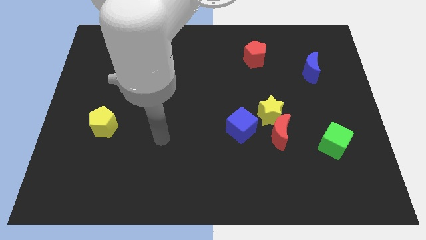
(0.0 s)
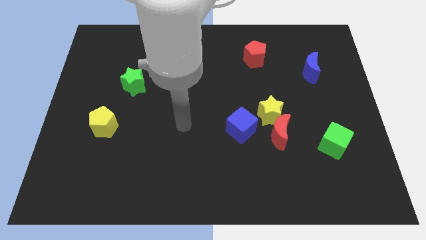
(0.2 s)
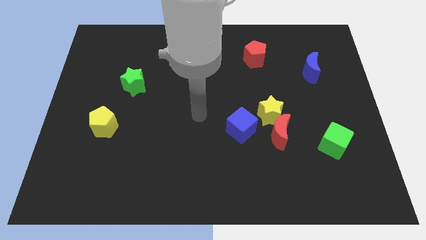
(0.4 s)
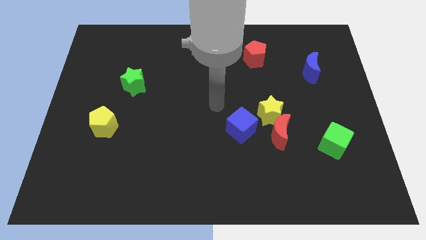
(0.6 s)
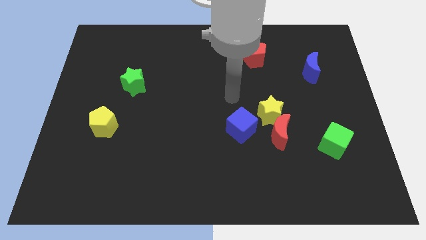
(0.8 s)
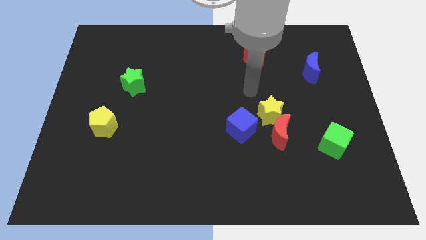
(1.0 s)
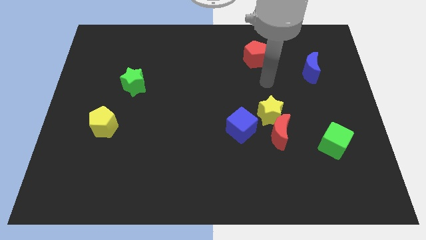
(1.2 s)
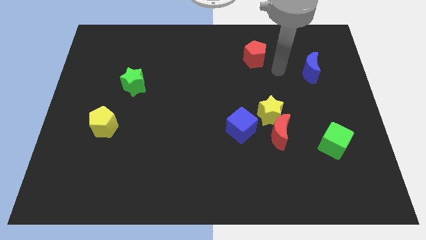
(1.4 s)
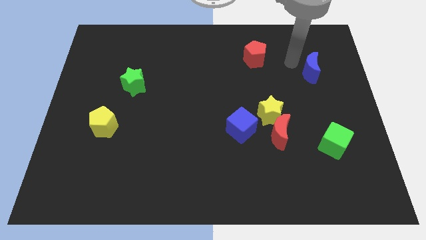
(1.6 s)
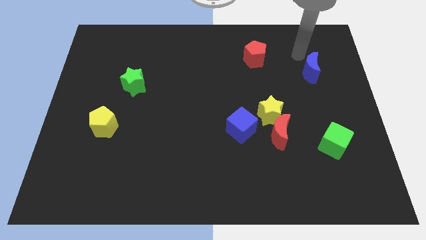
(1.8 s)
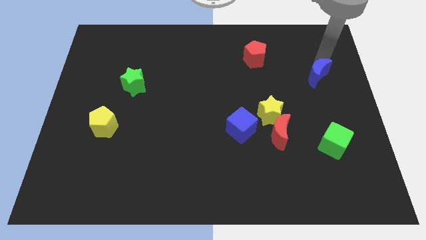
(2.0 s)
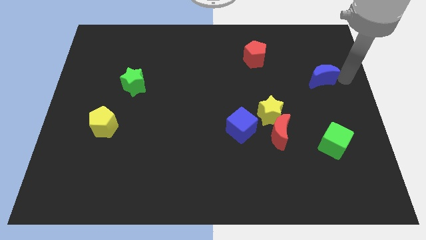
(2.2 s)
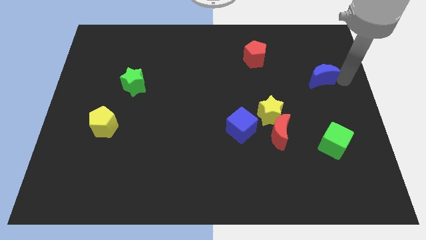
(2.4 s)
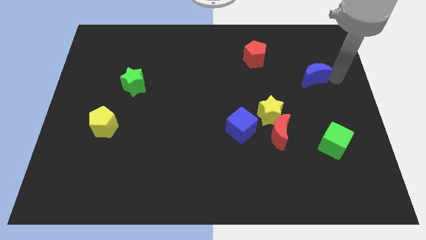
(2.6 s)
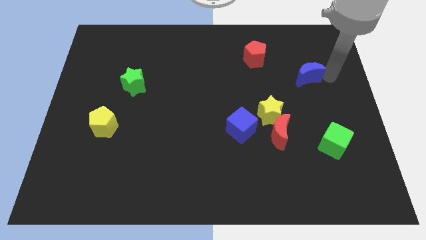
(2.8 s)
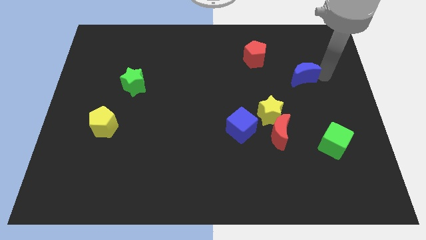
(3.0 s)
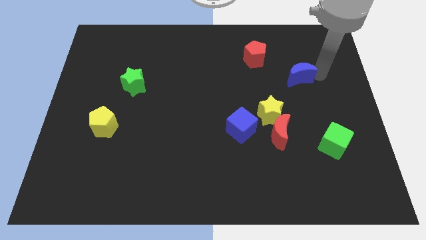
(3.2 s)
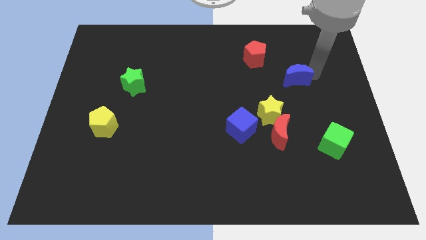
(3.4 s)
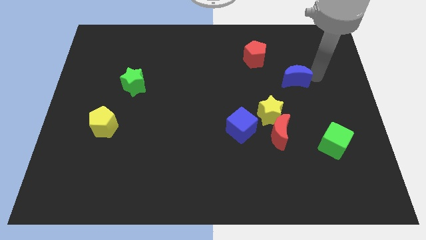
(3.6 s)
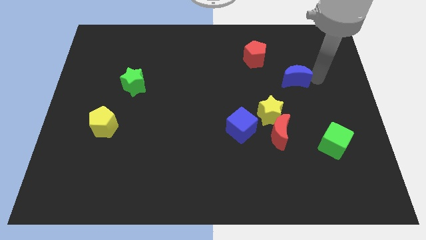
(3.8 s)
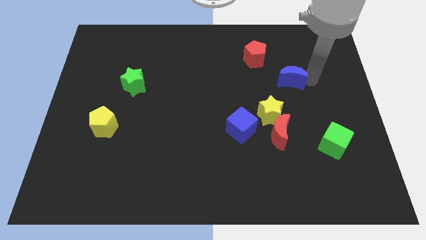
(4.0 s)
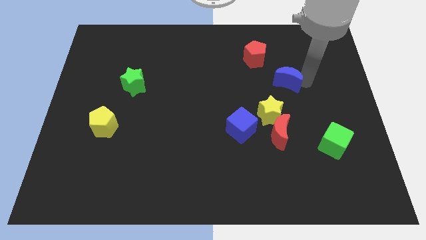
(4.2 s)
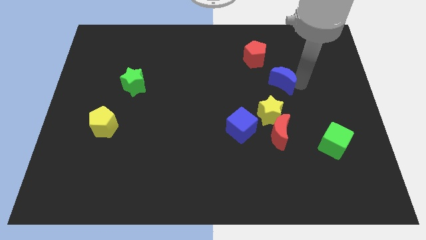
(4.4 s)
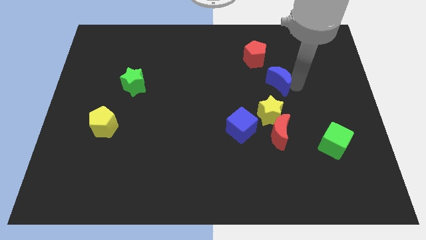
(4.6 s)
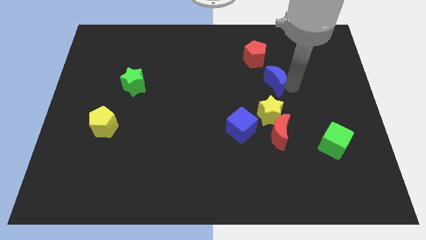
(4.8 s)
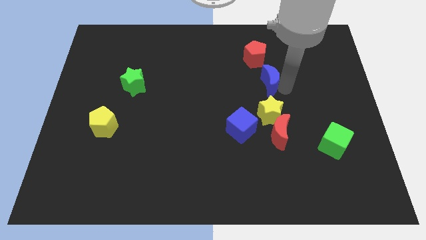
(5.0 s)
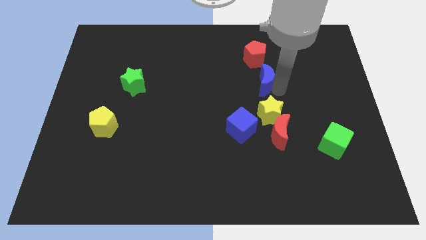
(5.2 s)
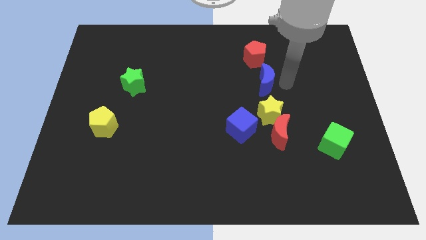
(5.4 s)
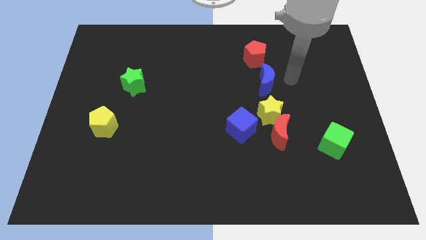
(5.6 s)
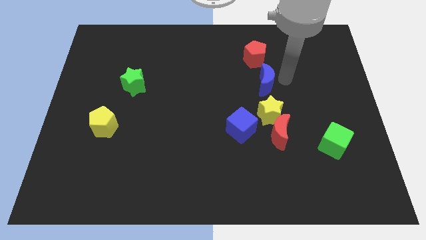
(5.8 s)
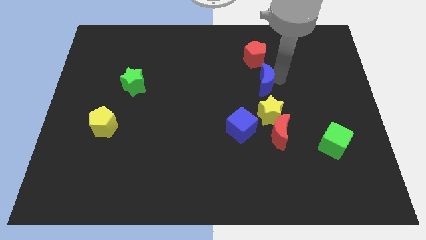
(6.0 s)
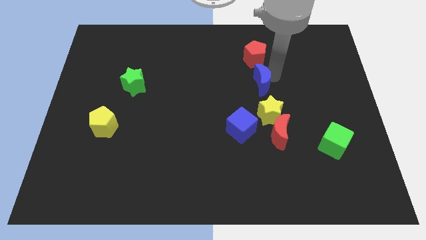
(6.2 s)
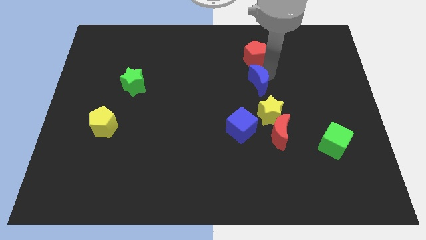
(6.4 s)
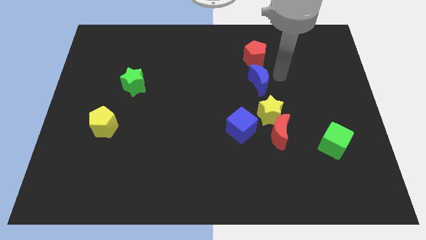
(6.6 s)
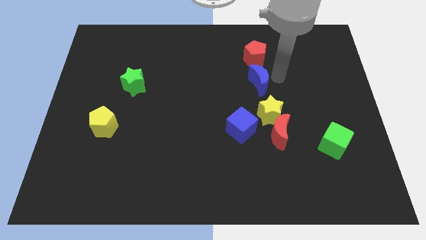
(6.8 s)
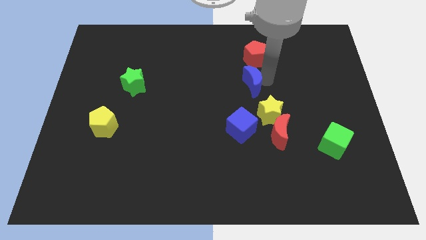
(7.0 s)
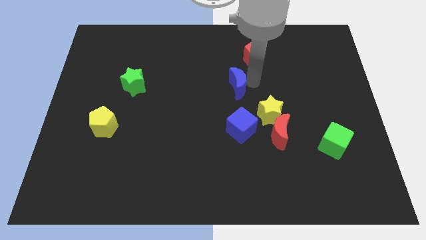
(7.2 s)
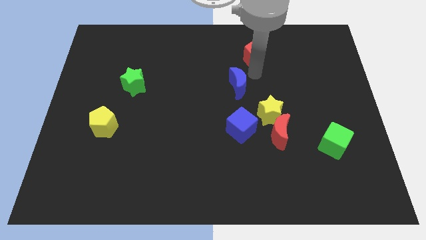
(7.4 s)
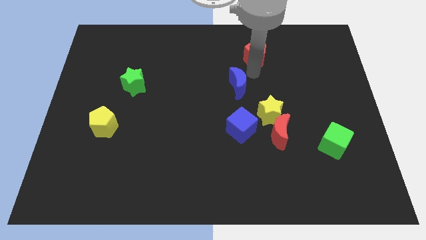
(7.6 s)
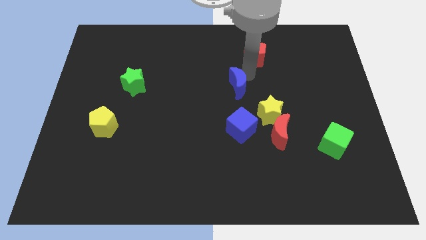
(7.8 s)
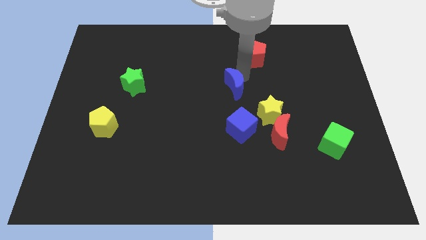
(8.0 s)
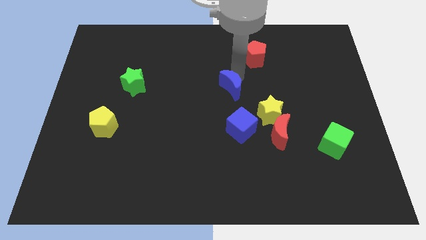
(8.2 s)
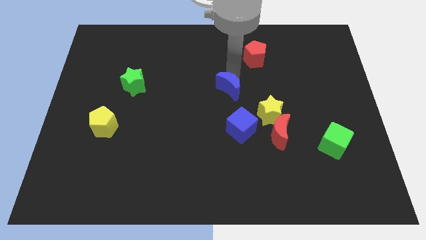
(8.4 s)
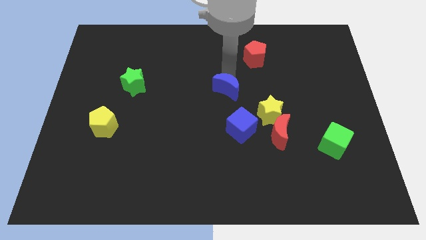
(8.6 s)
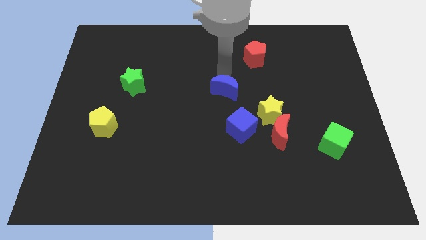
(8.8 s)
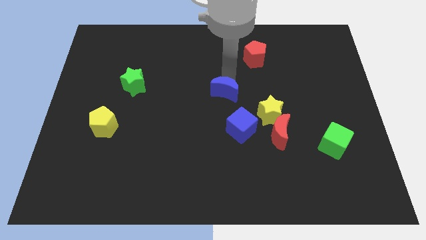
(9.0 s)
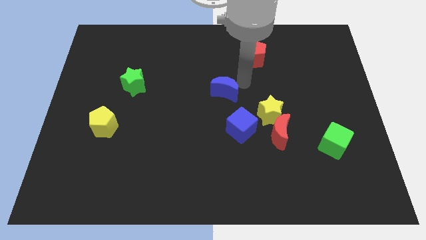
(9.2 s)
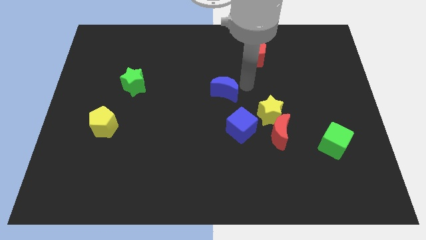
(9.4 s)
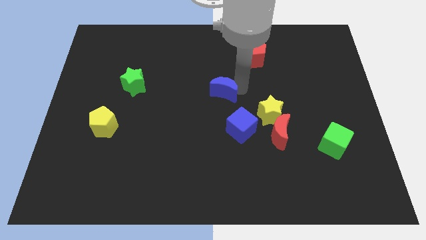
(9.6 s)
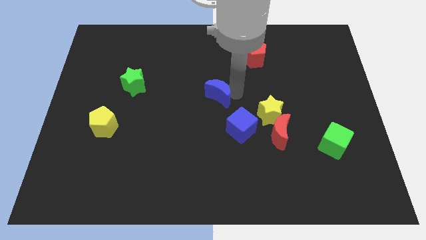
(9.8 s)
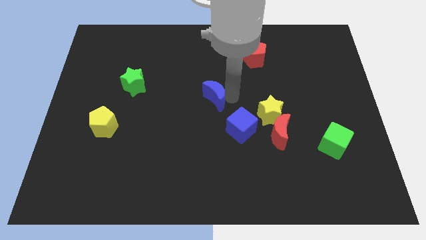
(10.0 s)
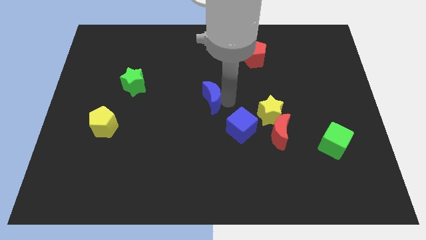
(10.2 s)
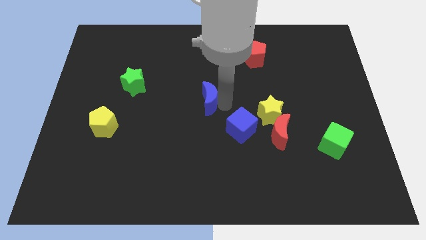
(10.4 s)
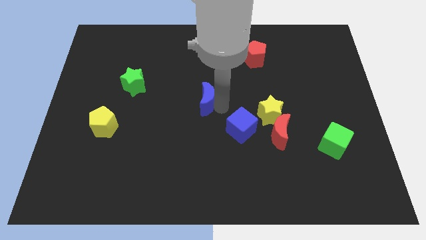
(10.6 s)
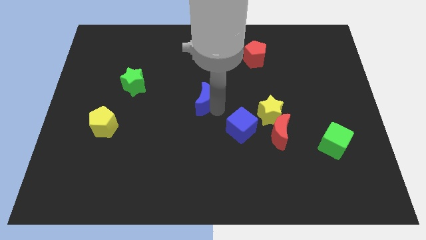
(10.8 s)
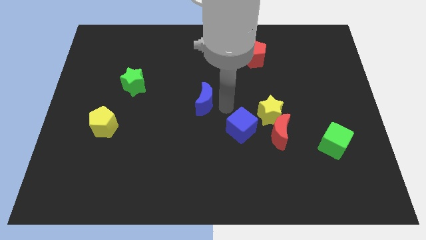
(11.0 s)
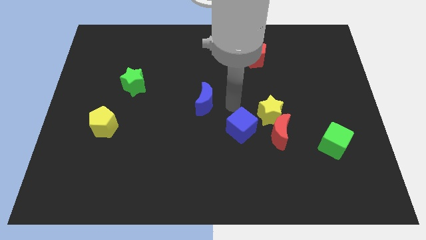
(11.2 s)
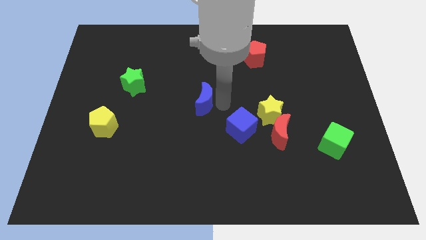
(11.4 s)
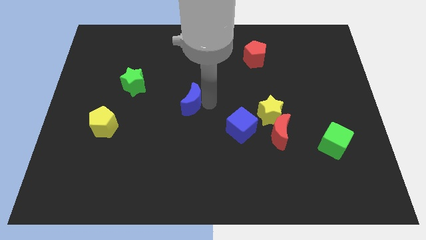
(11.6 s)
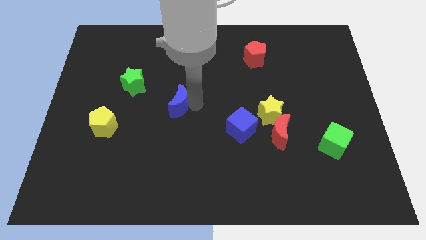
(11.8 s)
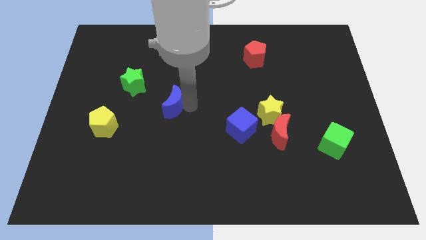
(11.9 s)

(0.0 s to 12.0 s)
move the blue moon to the bottom right of the green star
